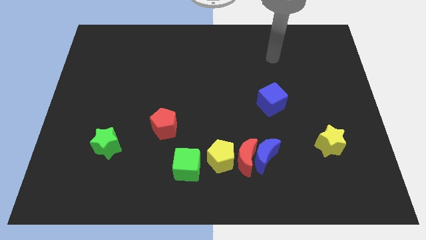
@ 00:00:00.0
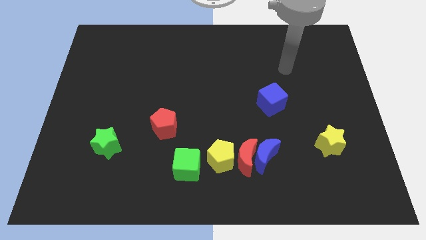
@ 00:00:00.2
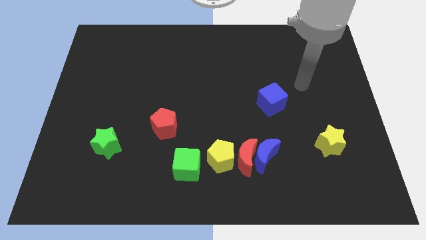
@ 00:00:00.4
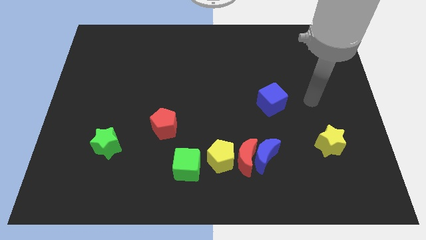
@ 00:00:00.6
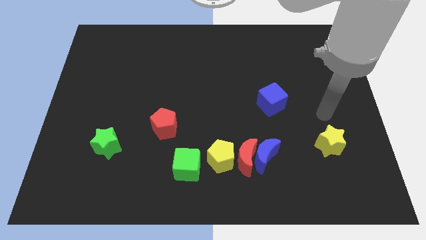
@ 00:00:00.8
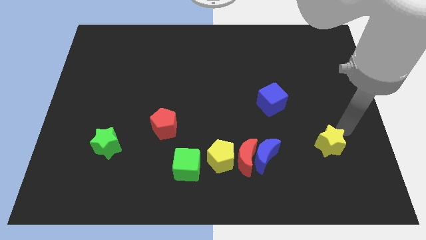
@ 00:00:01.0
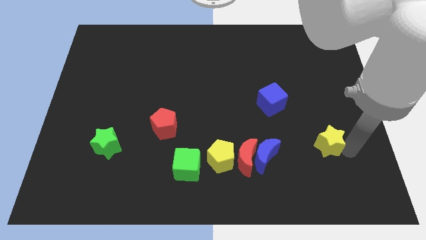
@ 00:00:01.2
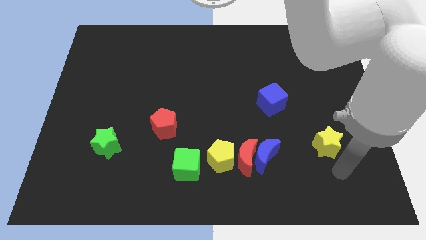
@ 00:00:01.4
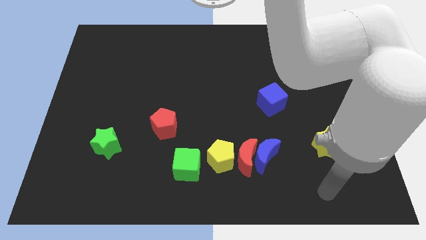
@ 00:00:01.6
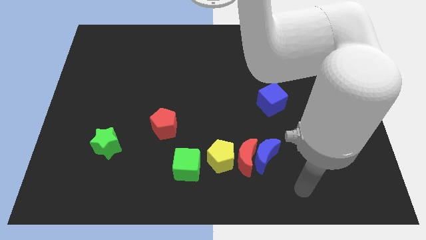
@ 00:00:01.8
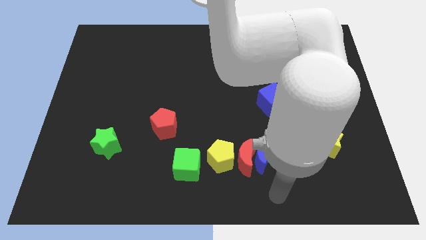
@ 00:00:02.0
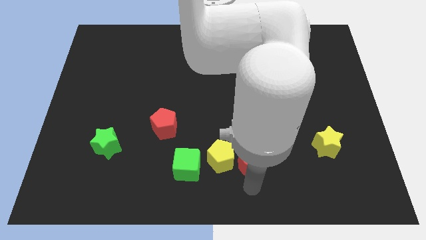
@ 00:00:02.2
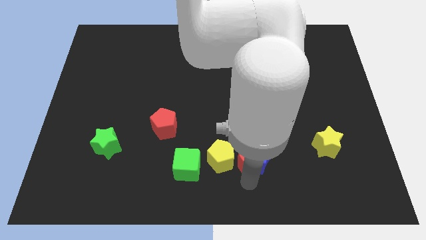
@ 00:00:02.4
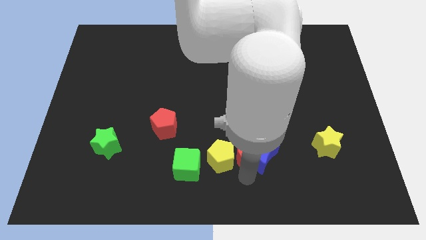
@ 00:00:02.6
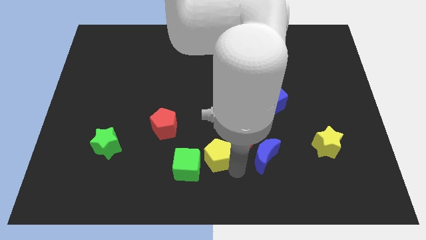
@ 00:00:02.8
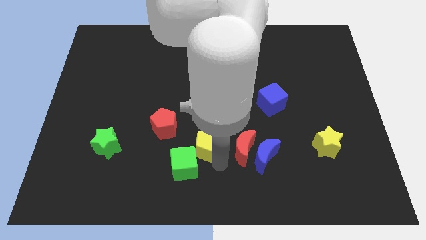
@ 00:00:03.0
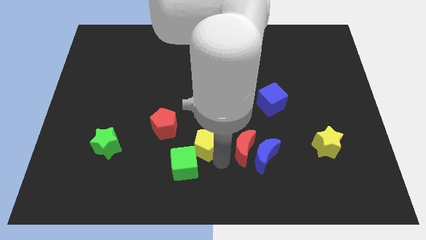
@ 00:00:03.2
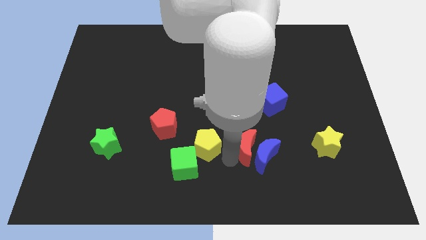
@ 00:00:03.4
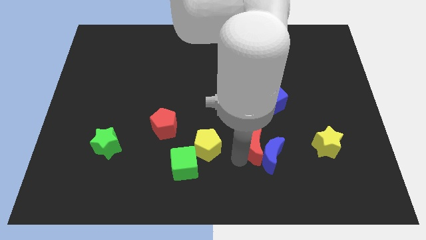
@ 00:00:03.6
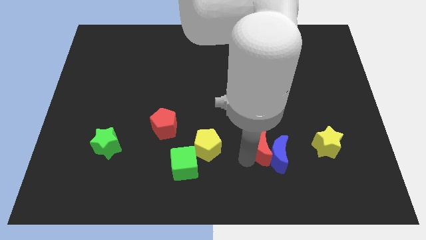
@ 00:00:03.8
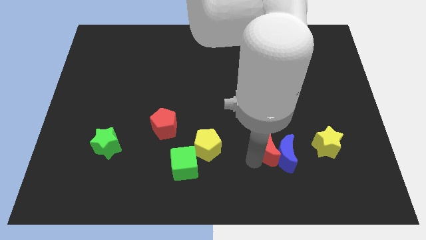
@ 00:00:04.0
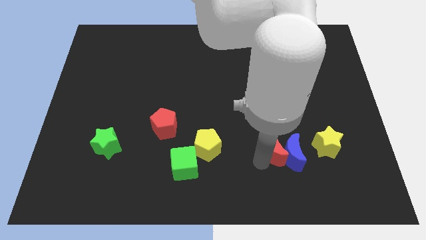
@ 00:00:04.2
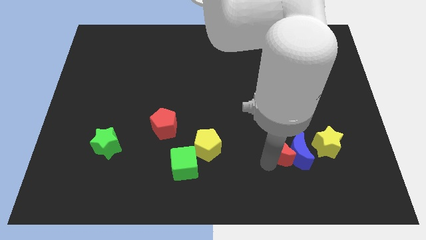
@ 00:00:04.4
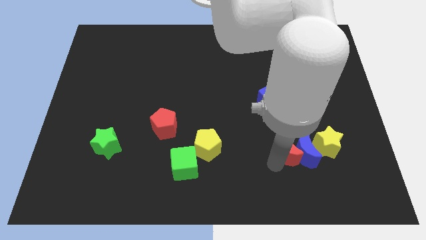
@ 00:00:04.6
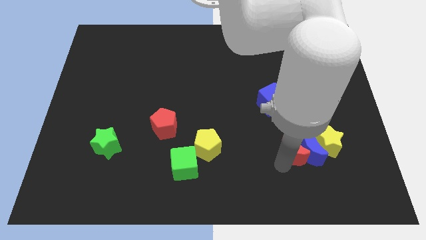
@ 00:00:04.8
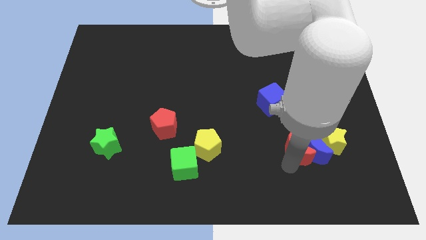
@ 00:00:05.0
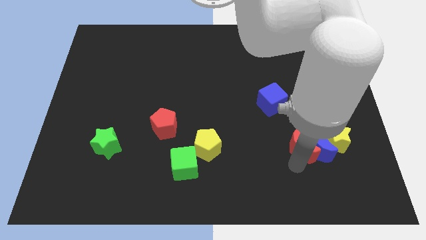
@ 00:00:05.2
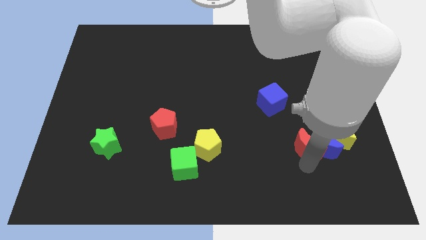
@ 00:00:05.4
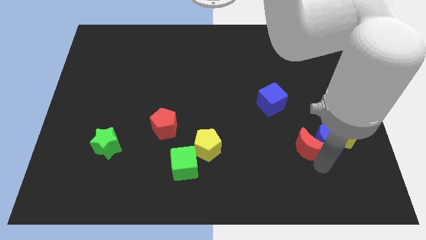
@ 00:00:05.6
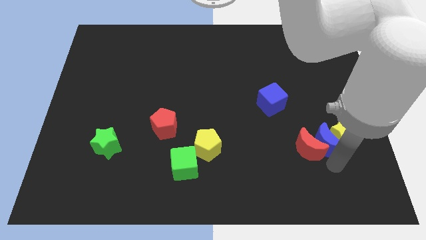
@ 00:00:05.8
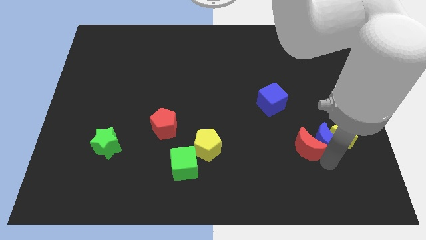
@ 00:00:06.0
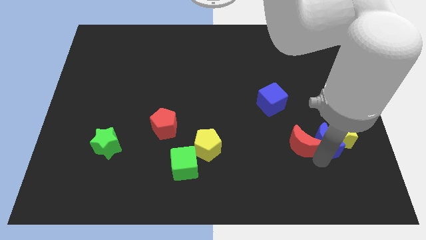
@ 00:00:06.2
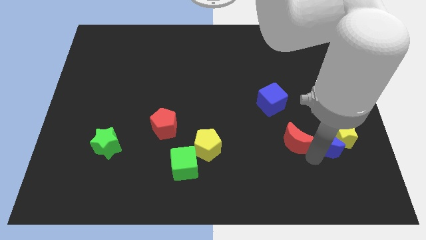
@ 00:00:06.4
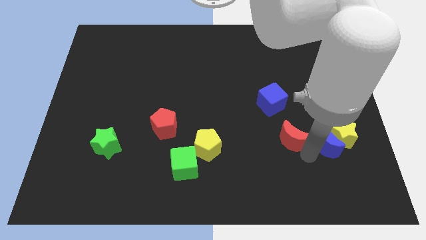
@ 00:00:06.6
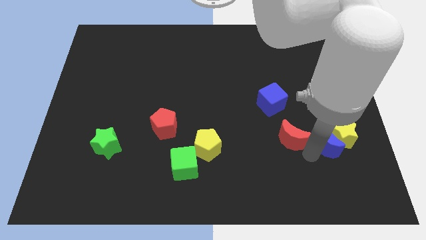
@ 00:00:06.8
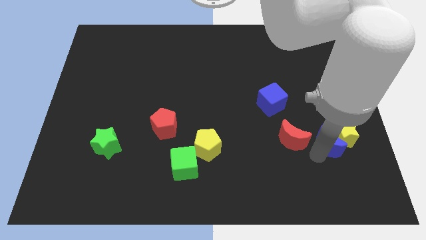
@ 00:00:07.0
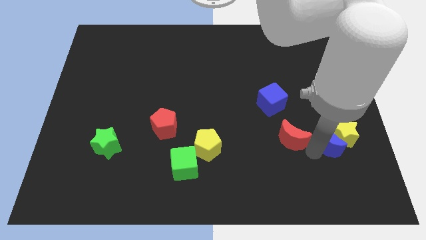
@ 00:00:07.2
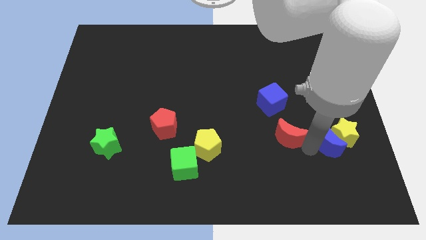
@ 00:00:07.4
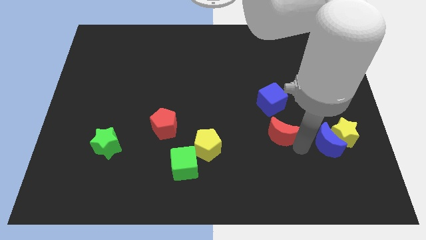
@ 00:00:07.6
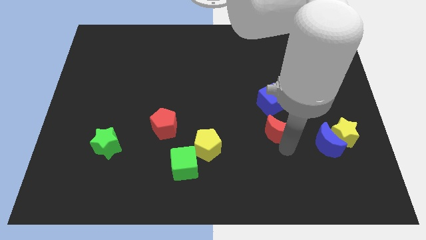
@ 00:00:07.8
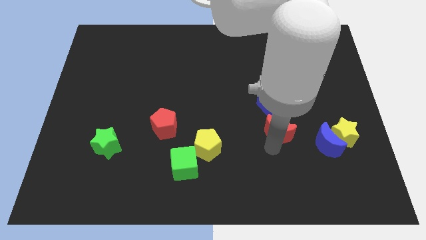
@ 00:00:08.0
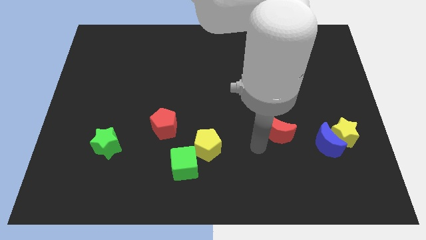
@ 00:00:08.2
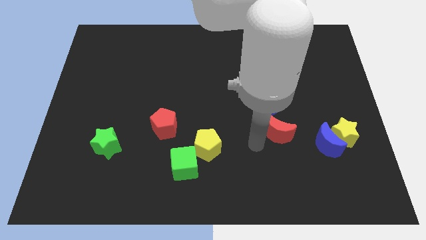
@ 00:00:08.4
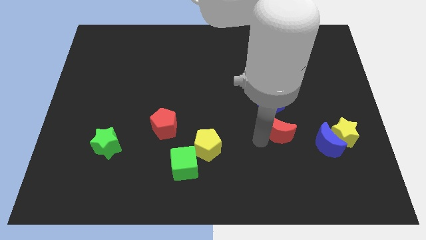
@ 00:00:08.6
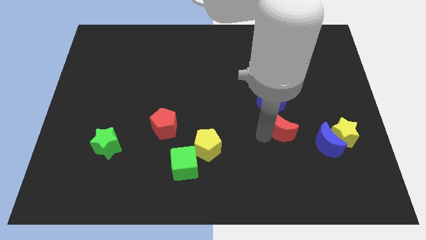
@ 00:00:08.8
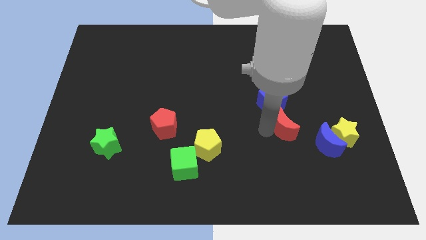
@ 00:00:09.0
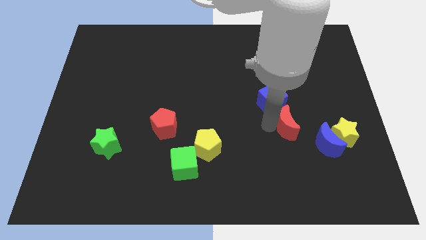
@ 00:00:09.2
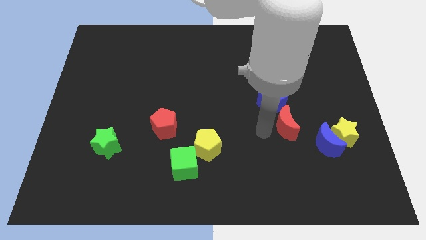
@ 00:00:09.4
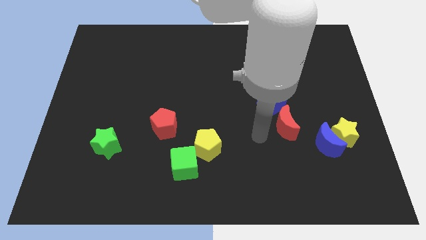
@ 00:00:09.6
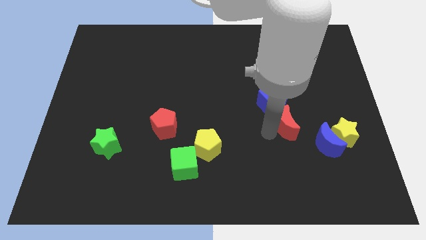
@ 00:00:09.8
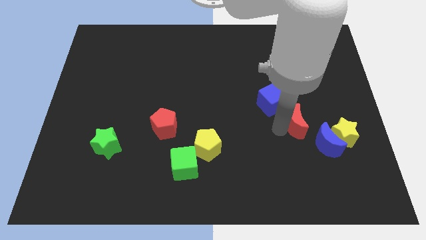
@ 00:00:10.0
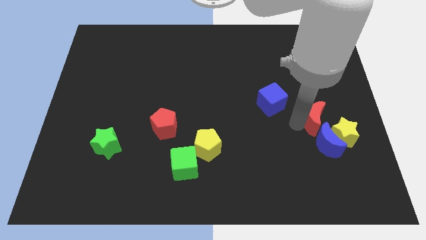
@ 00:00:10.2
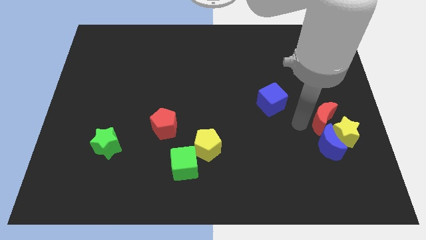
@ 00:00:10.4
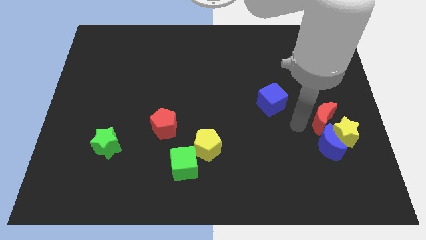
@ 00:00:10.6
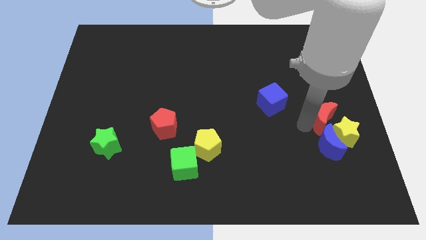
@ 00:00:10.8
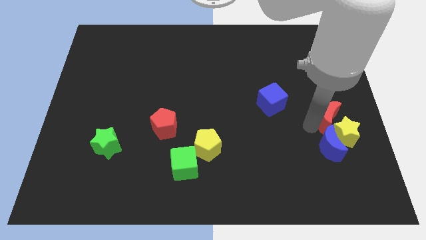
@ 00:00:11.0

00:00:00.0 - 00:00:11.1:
push the red moon to the right side of the board

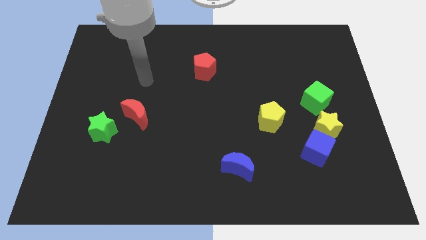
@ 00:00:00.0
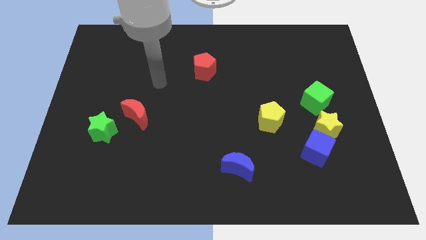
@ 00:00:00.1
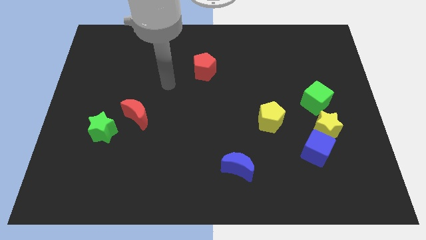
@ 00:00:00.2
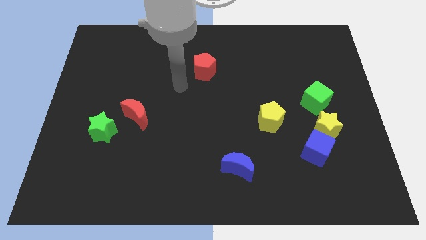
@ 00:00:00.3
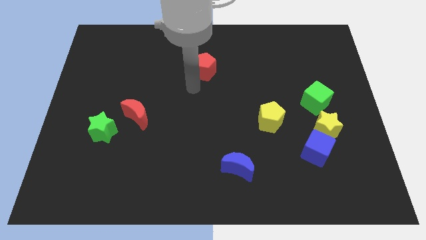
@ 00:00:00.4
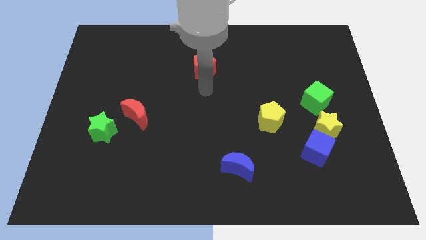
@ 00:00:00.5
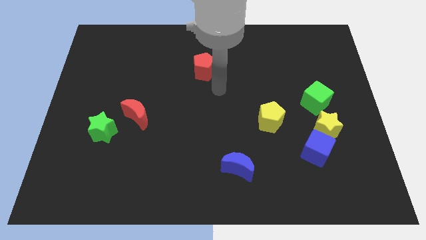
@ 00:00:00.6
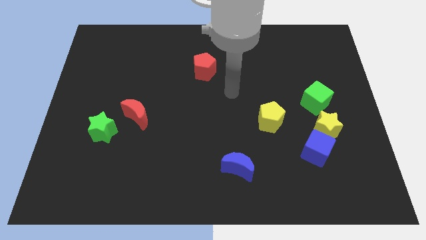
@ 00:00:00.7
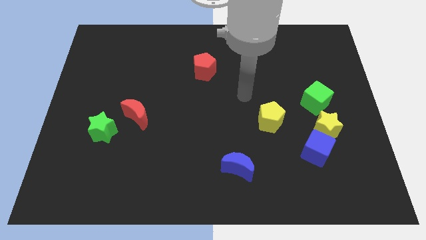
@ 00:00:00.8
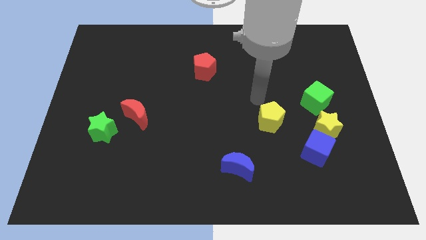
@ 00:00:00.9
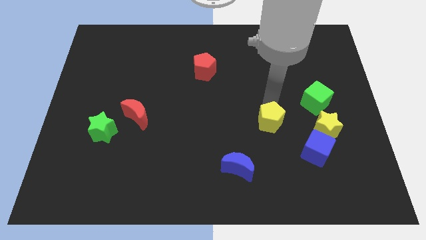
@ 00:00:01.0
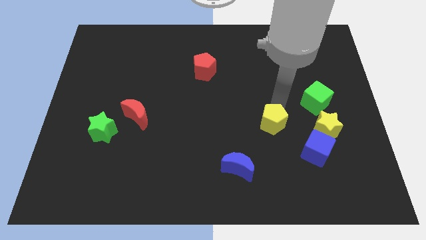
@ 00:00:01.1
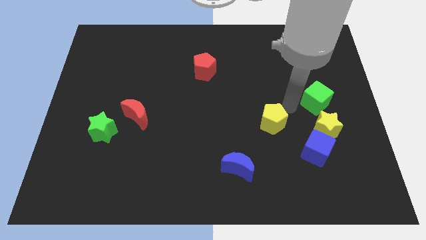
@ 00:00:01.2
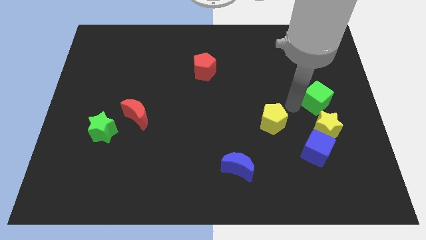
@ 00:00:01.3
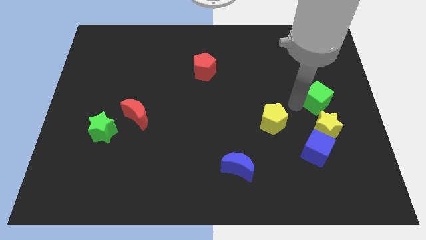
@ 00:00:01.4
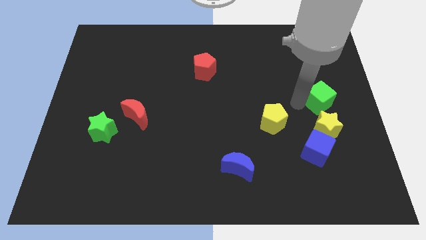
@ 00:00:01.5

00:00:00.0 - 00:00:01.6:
push the green cube to the right side
